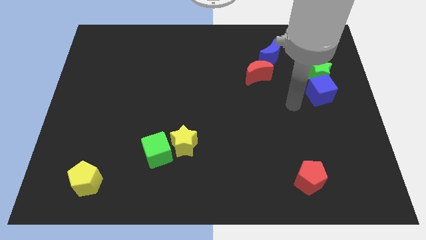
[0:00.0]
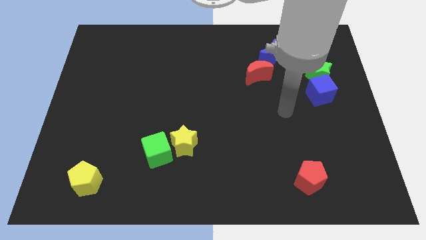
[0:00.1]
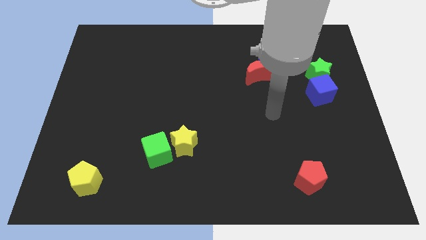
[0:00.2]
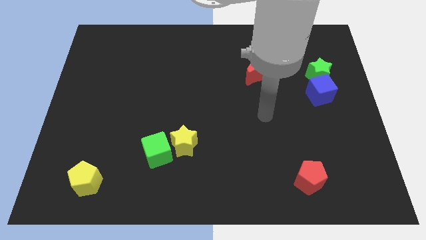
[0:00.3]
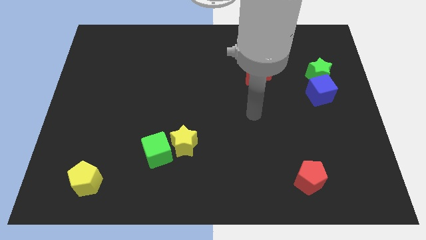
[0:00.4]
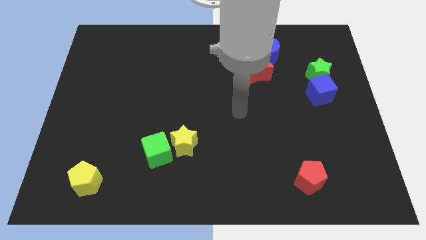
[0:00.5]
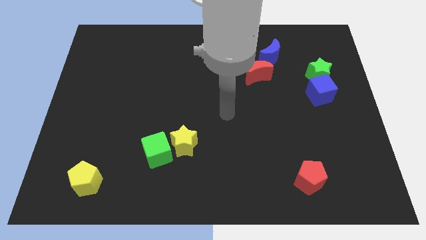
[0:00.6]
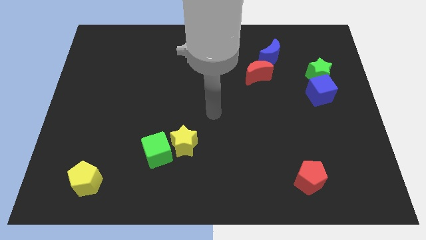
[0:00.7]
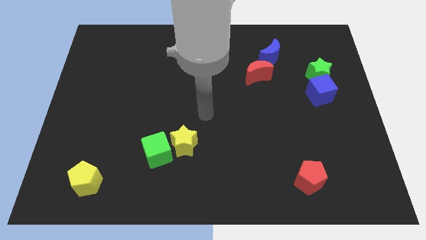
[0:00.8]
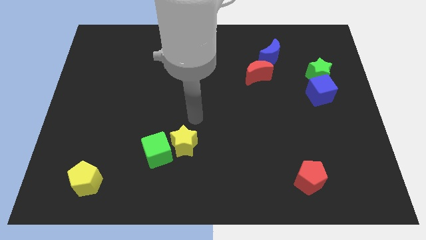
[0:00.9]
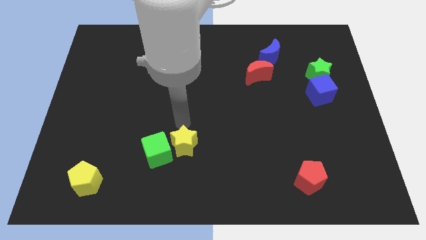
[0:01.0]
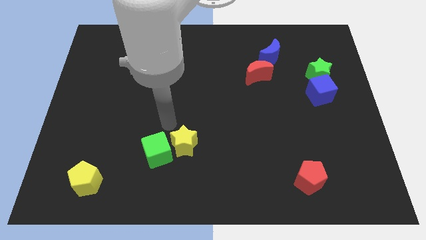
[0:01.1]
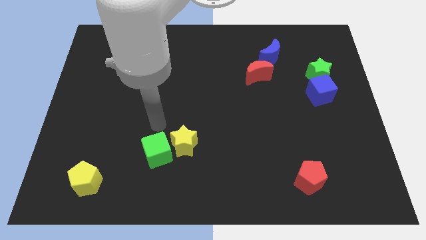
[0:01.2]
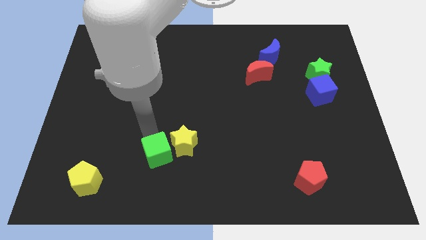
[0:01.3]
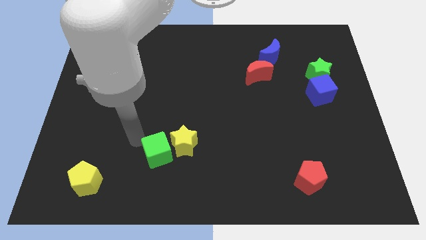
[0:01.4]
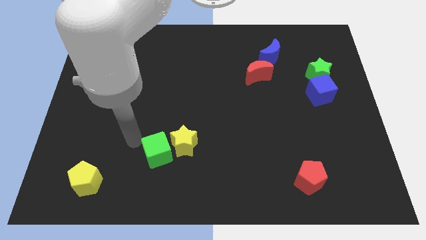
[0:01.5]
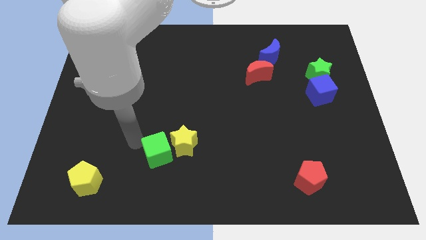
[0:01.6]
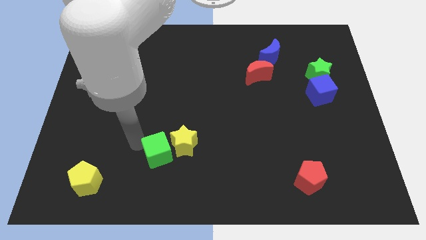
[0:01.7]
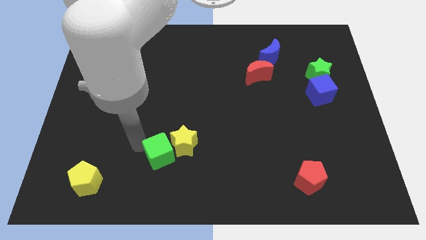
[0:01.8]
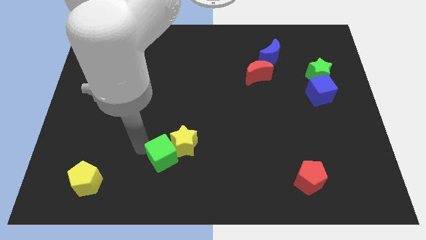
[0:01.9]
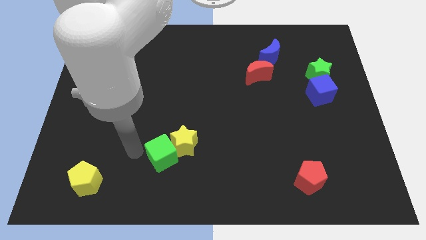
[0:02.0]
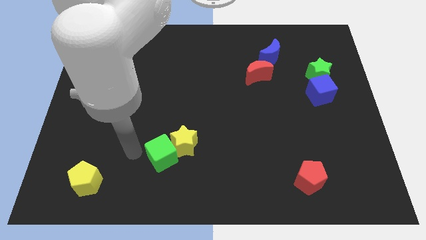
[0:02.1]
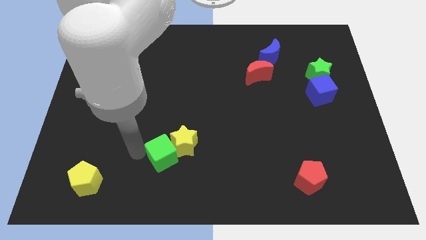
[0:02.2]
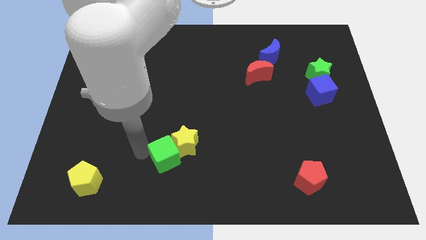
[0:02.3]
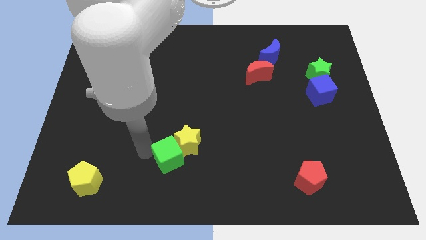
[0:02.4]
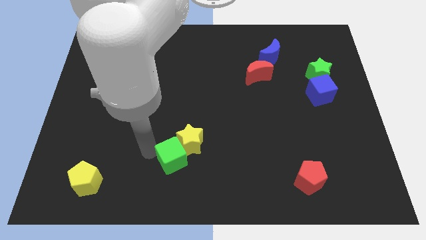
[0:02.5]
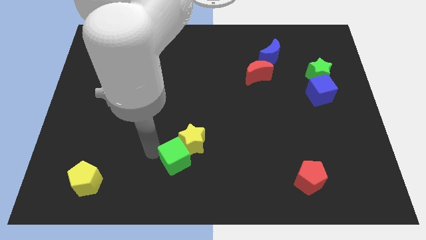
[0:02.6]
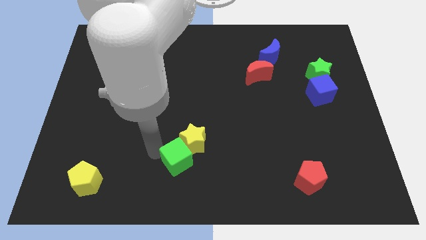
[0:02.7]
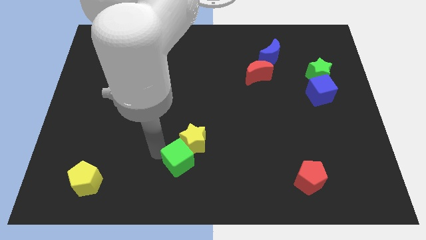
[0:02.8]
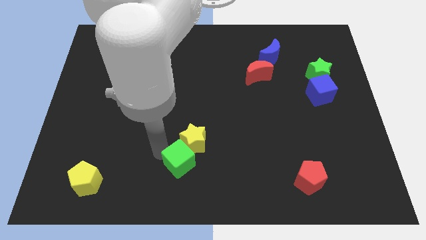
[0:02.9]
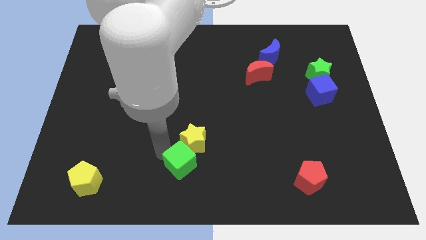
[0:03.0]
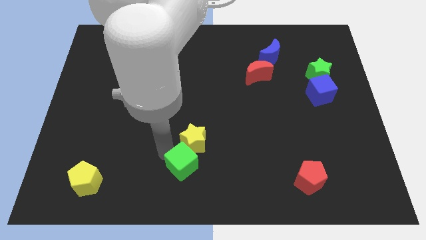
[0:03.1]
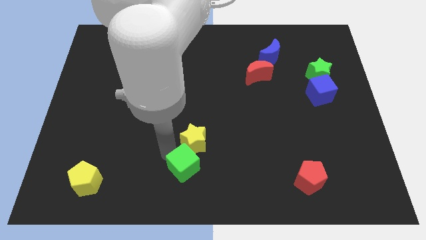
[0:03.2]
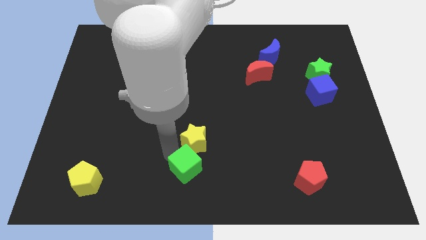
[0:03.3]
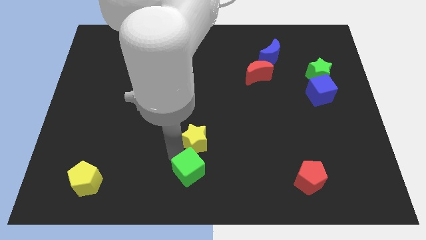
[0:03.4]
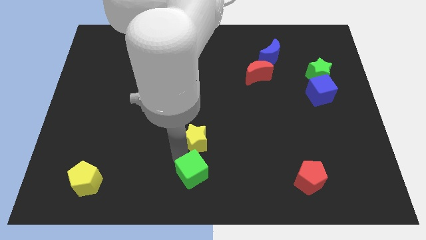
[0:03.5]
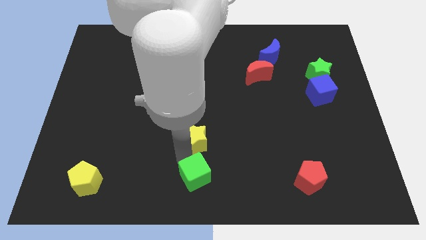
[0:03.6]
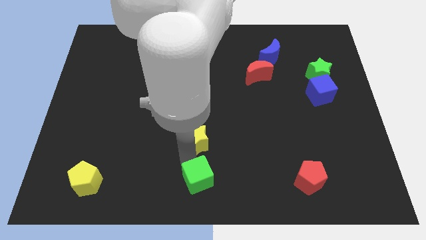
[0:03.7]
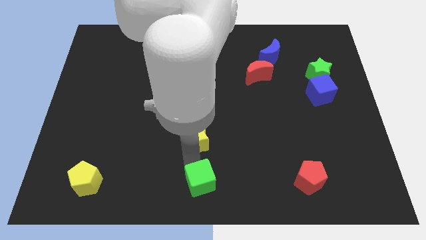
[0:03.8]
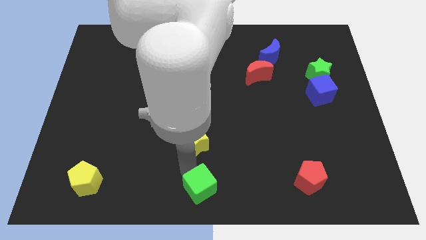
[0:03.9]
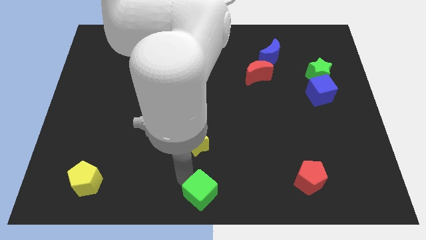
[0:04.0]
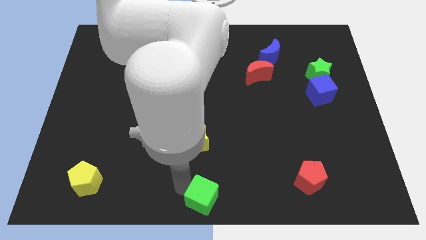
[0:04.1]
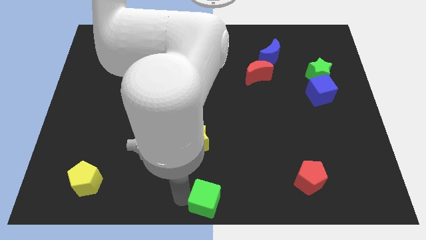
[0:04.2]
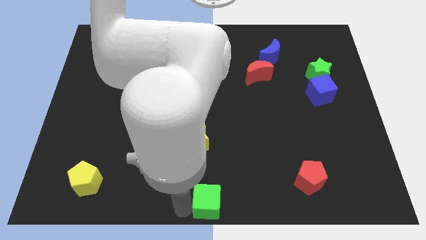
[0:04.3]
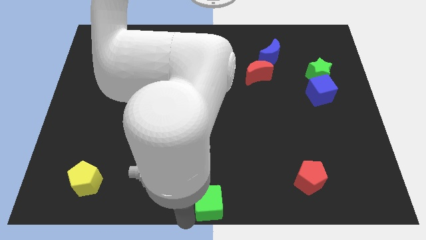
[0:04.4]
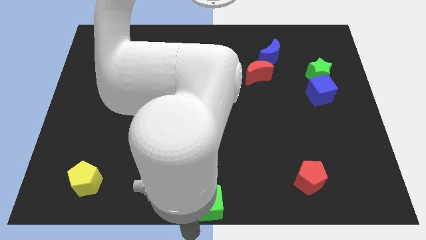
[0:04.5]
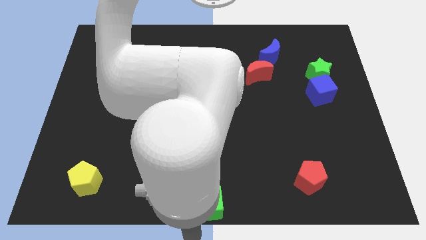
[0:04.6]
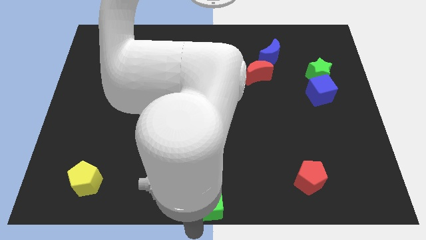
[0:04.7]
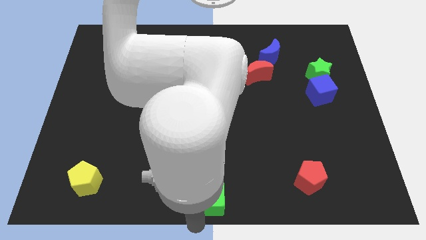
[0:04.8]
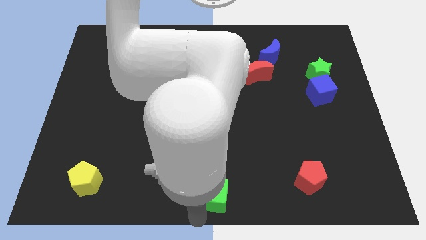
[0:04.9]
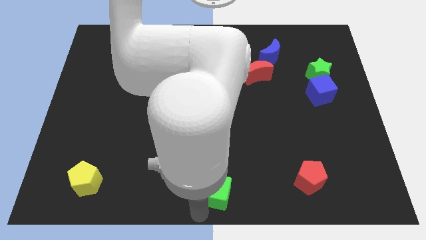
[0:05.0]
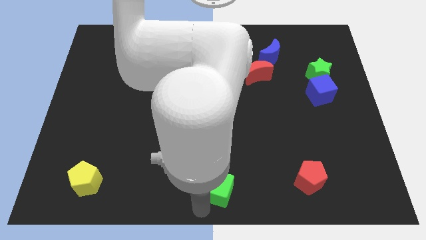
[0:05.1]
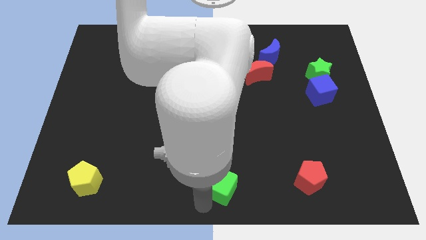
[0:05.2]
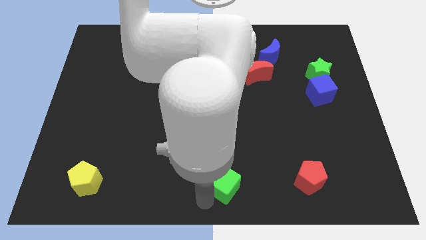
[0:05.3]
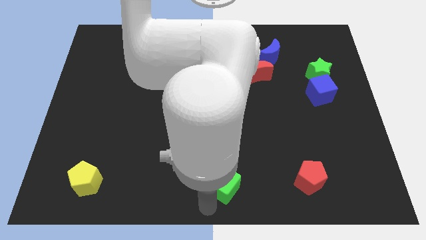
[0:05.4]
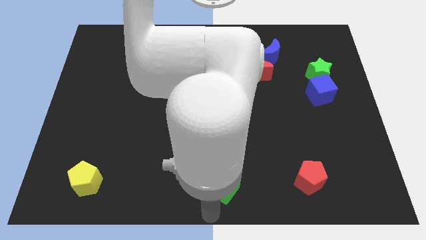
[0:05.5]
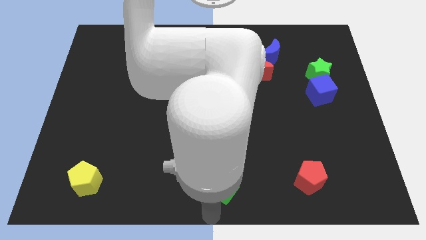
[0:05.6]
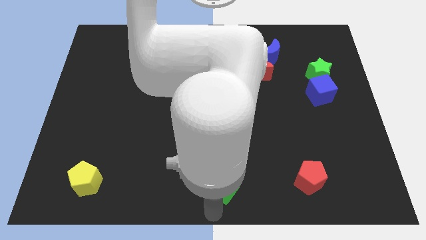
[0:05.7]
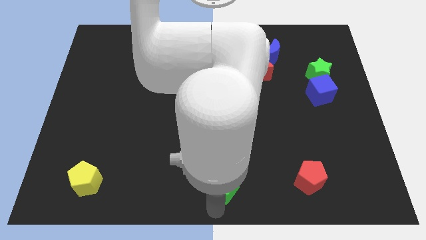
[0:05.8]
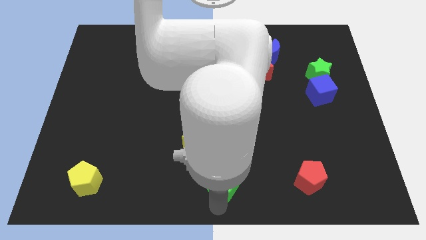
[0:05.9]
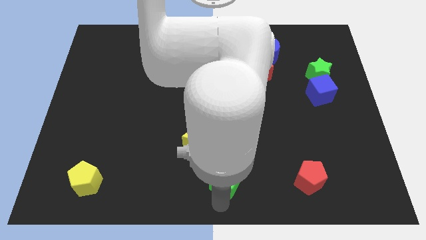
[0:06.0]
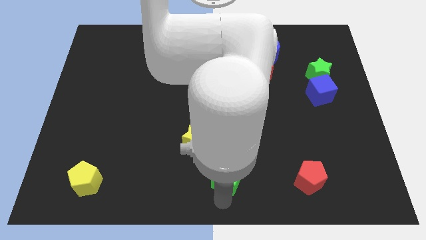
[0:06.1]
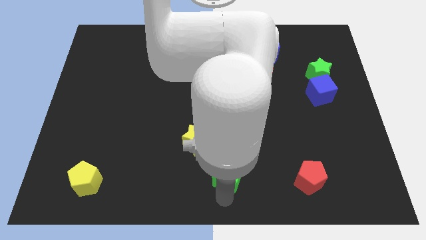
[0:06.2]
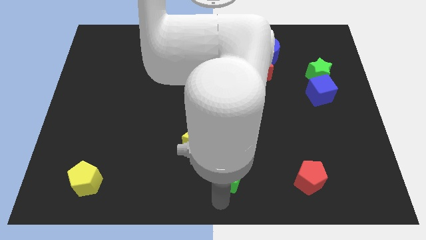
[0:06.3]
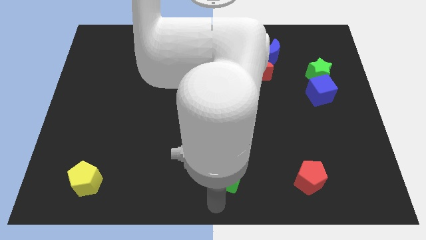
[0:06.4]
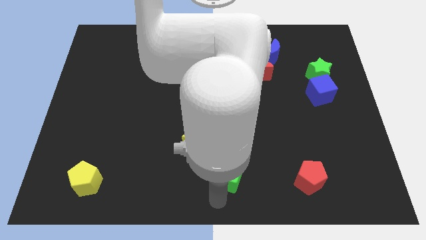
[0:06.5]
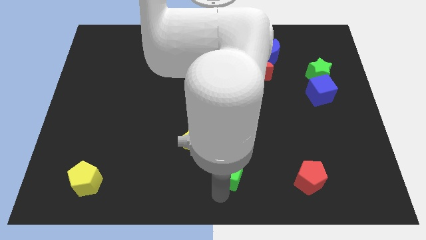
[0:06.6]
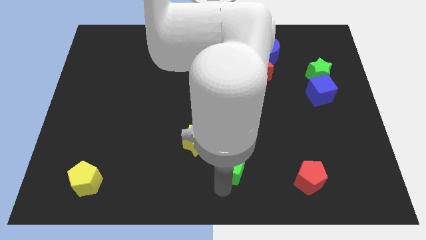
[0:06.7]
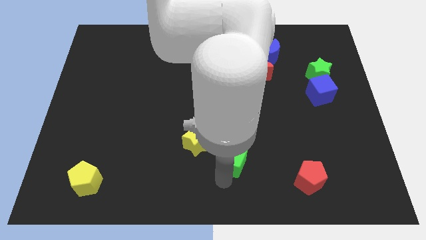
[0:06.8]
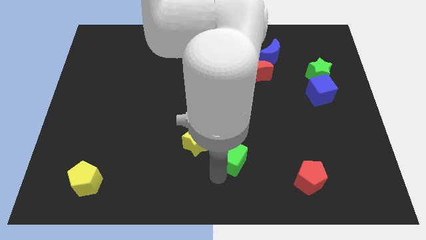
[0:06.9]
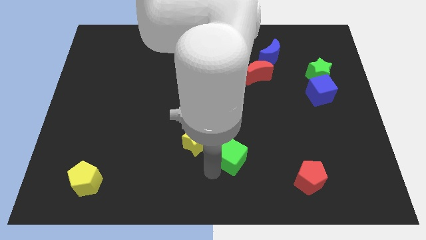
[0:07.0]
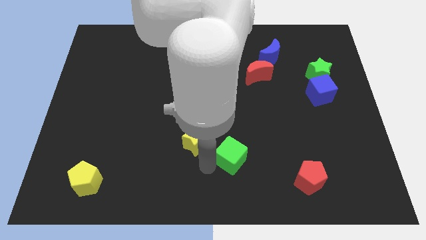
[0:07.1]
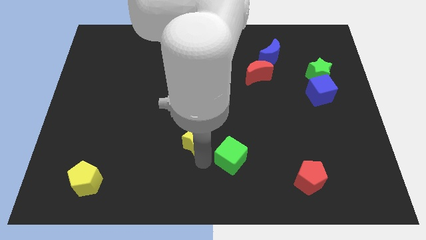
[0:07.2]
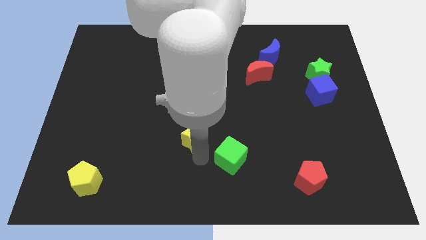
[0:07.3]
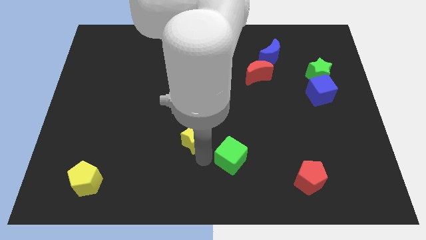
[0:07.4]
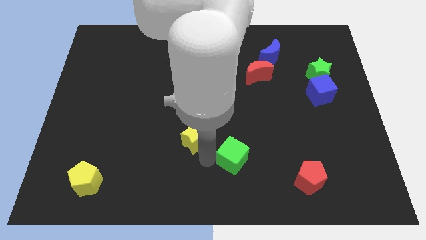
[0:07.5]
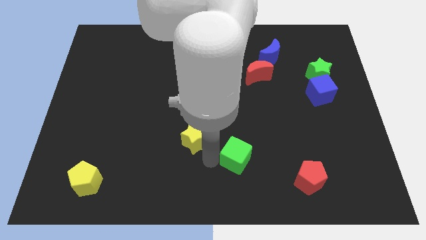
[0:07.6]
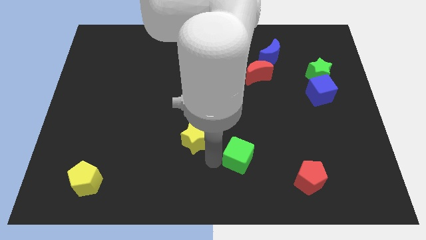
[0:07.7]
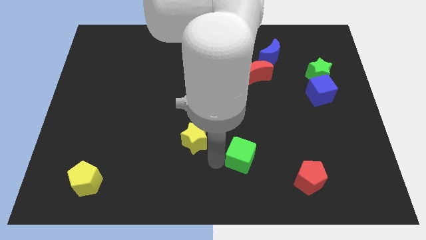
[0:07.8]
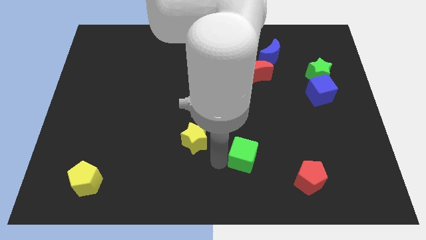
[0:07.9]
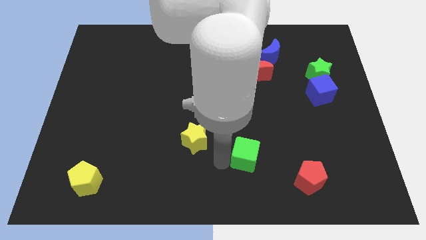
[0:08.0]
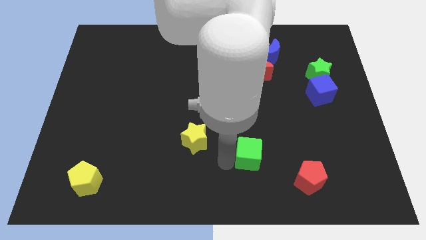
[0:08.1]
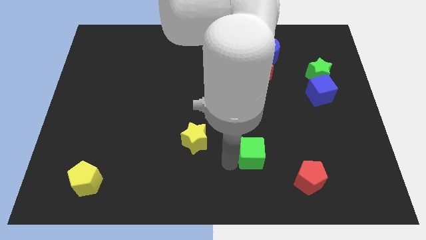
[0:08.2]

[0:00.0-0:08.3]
move the green cube to the right
